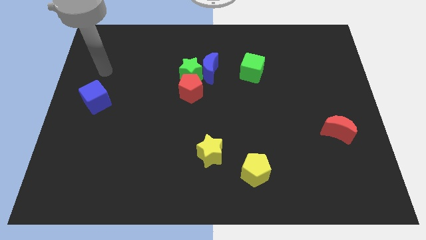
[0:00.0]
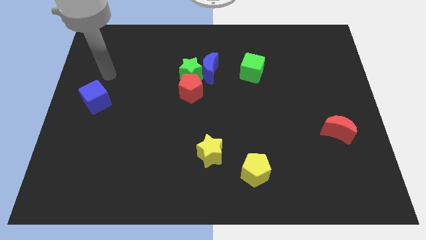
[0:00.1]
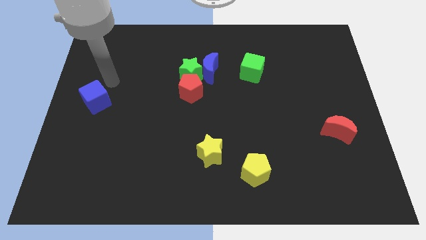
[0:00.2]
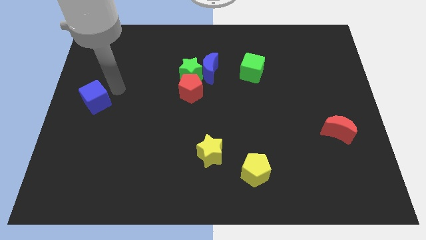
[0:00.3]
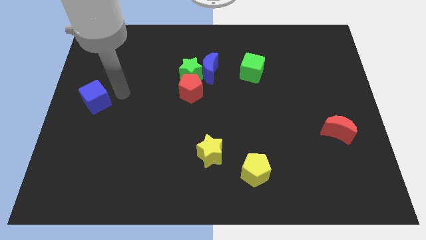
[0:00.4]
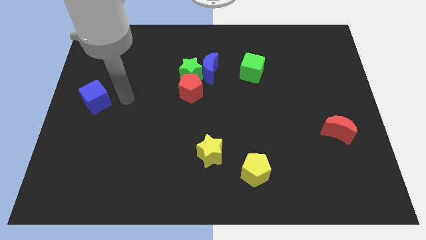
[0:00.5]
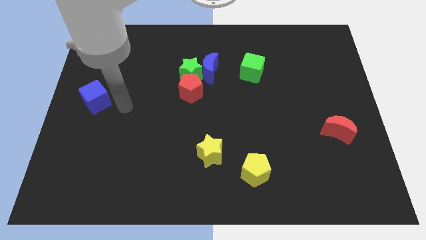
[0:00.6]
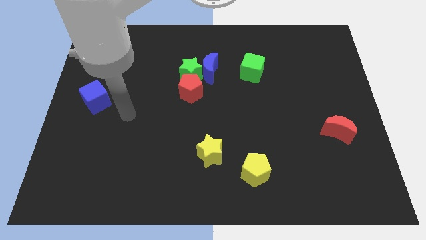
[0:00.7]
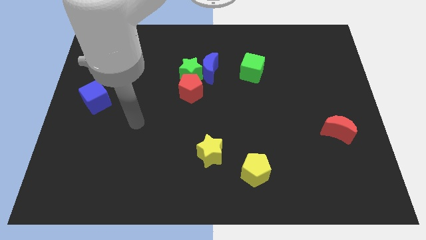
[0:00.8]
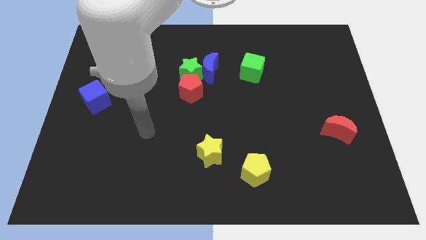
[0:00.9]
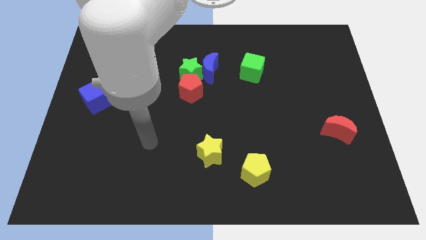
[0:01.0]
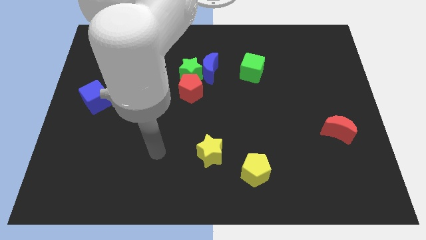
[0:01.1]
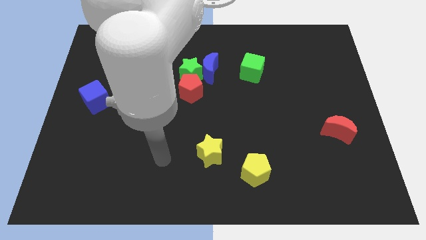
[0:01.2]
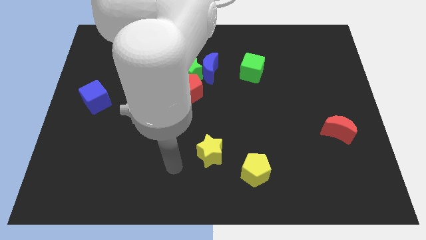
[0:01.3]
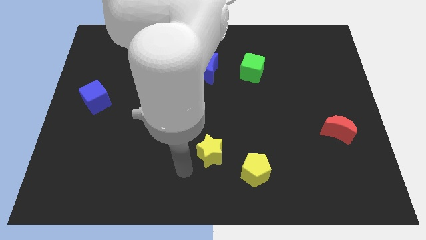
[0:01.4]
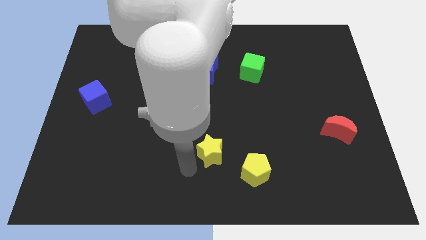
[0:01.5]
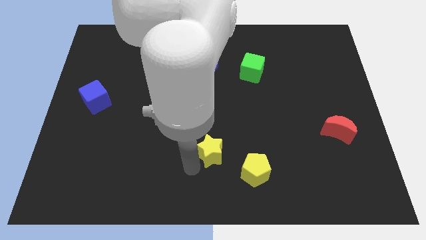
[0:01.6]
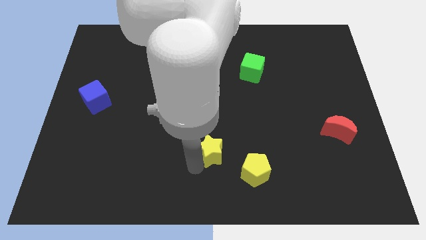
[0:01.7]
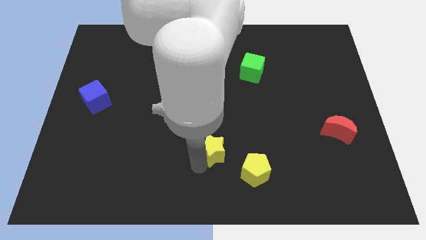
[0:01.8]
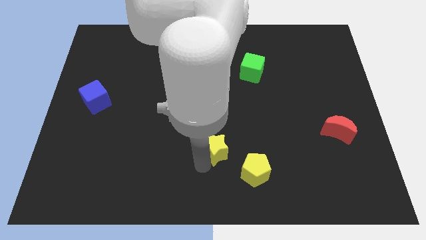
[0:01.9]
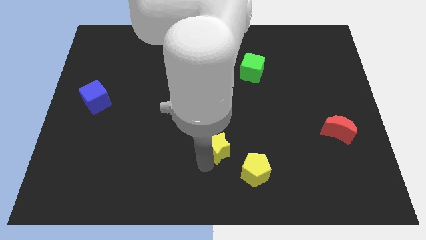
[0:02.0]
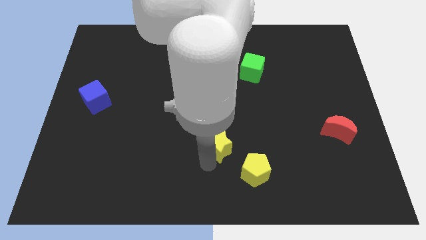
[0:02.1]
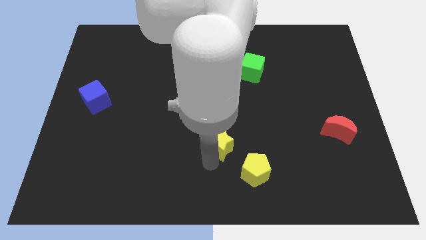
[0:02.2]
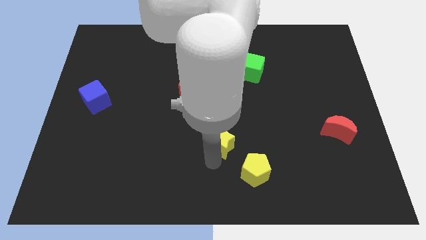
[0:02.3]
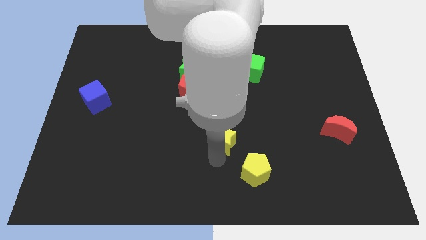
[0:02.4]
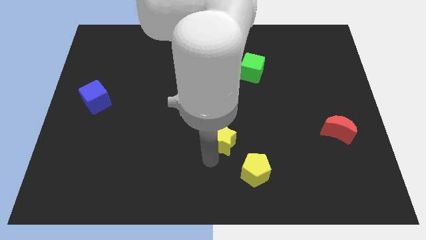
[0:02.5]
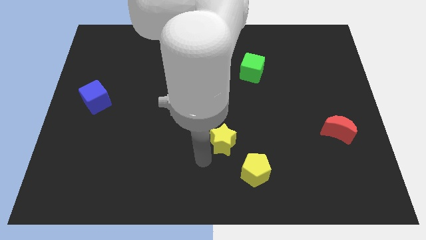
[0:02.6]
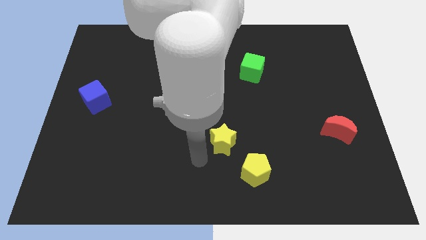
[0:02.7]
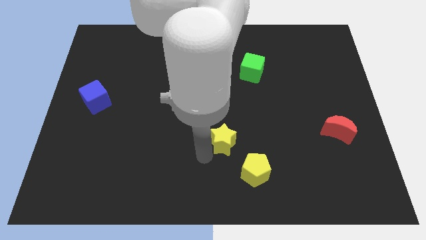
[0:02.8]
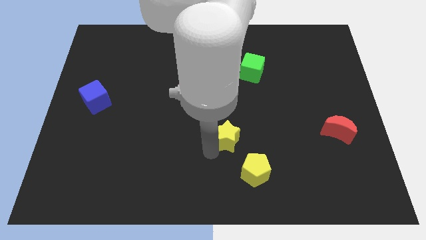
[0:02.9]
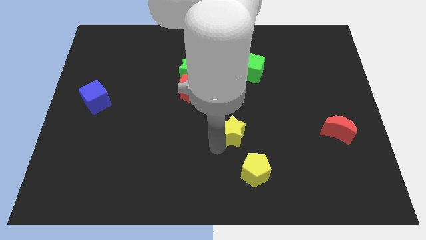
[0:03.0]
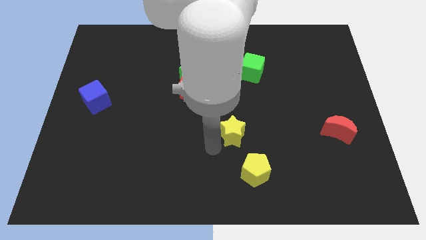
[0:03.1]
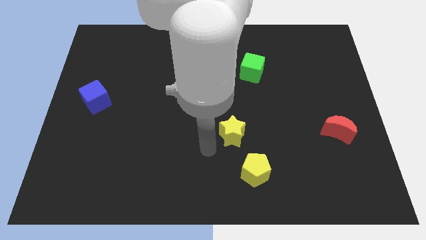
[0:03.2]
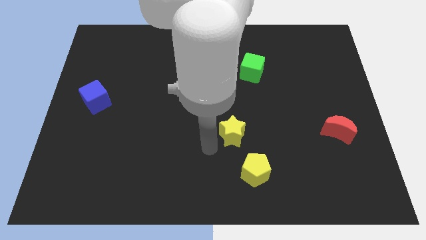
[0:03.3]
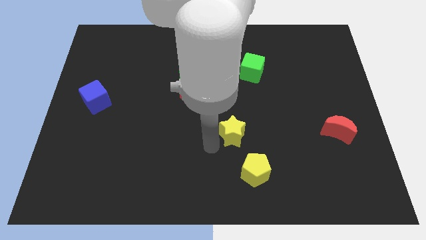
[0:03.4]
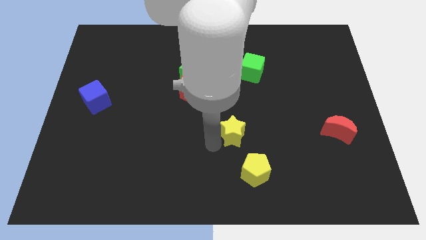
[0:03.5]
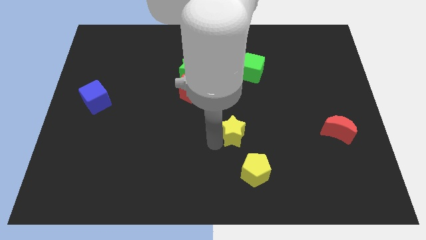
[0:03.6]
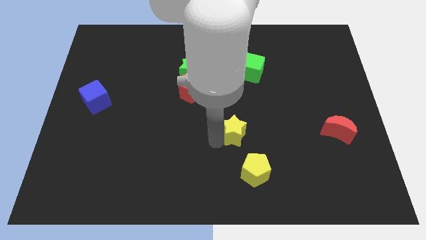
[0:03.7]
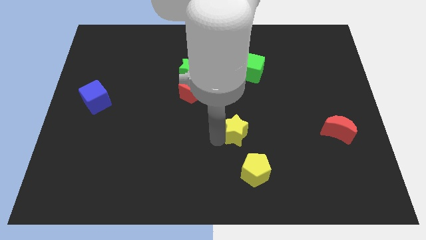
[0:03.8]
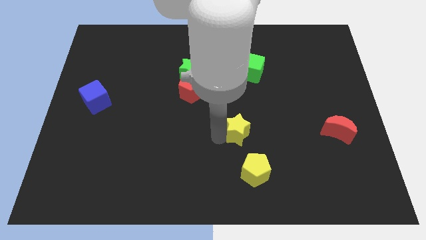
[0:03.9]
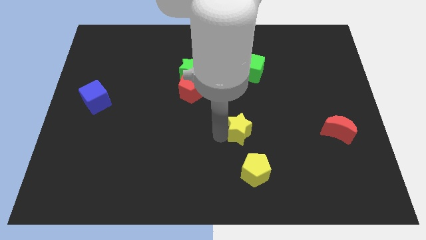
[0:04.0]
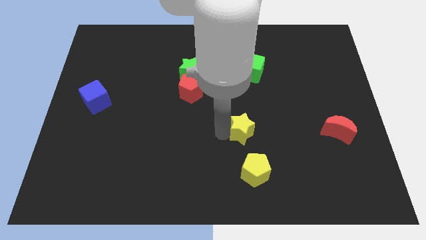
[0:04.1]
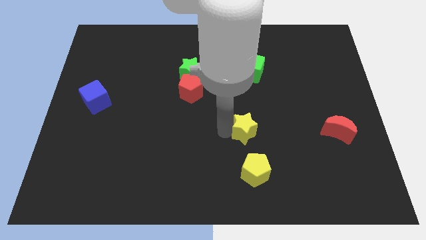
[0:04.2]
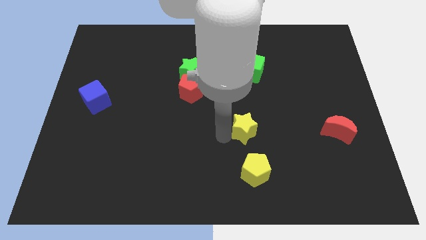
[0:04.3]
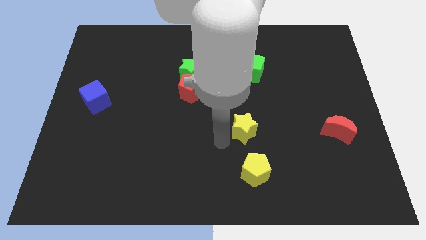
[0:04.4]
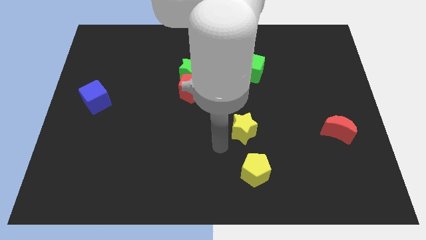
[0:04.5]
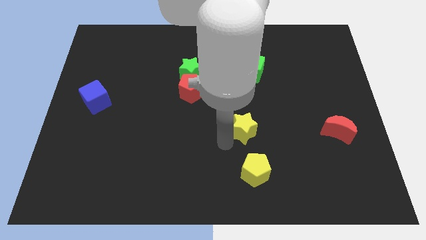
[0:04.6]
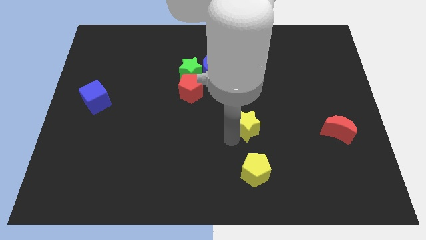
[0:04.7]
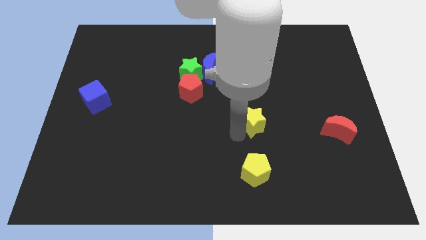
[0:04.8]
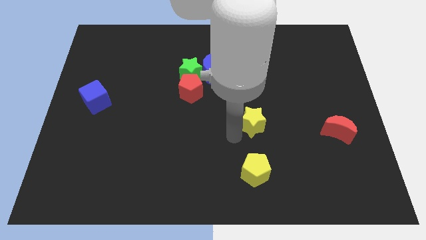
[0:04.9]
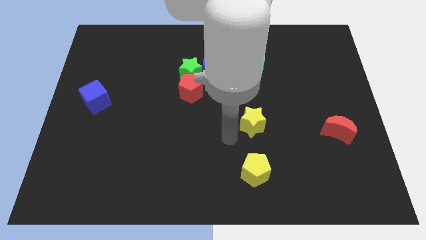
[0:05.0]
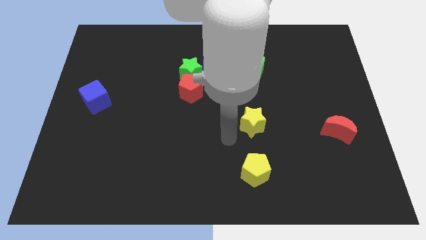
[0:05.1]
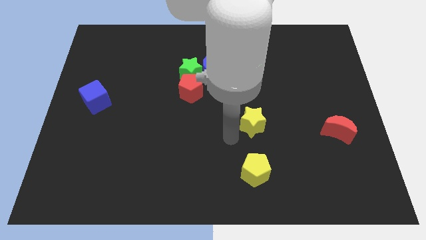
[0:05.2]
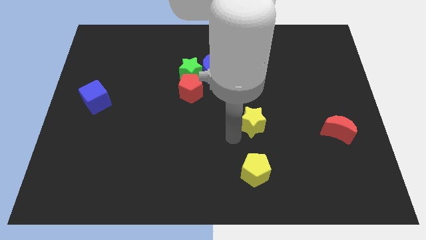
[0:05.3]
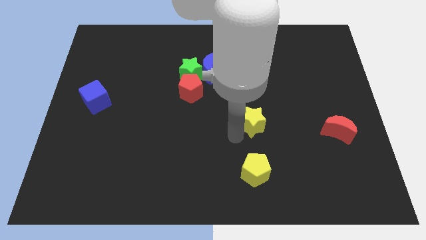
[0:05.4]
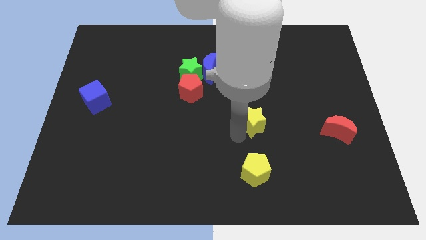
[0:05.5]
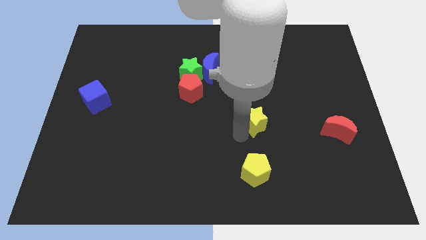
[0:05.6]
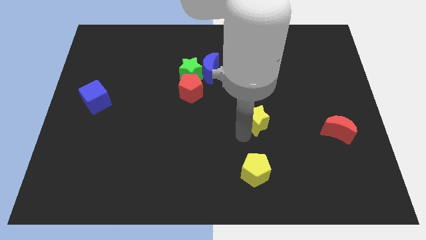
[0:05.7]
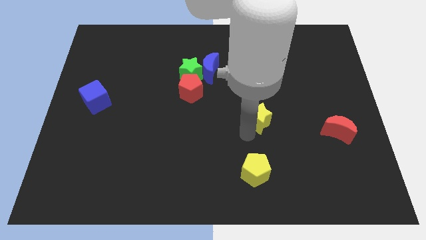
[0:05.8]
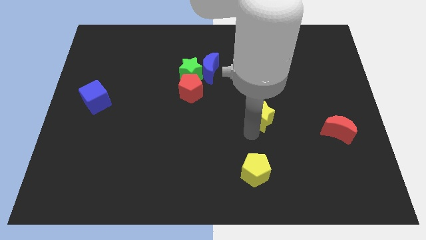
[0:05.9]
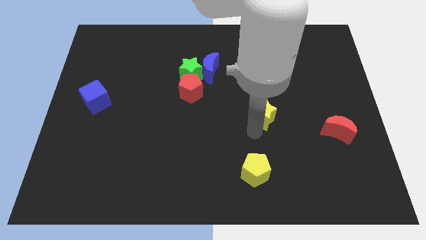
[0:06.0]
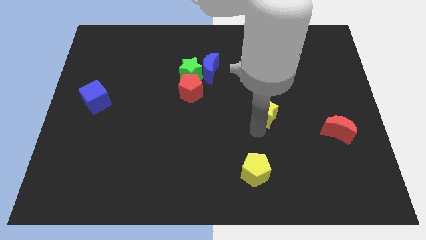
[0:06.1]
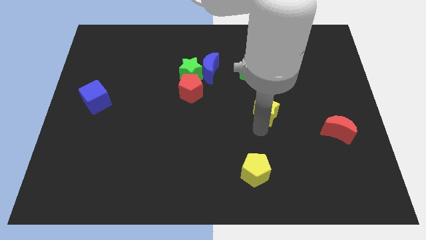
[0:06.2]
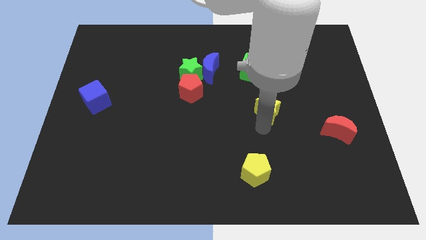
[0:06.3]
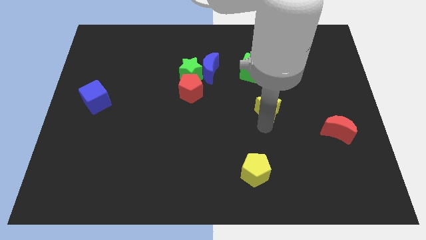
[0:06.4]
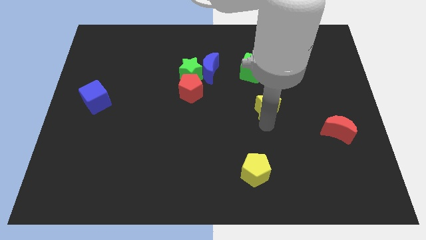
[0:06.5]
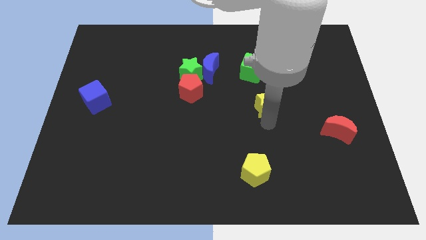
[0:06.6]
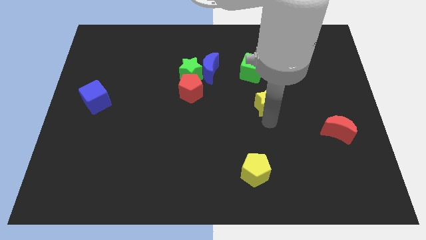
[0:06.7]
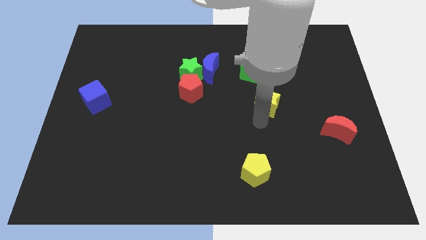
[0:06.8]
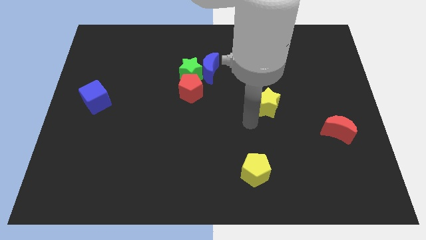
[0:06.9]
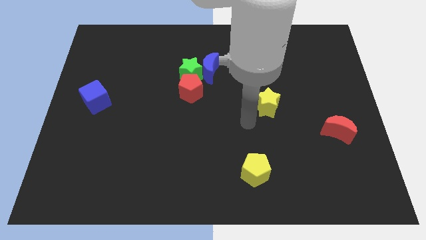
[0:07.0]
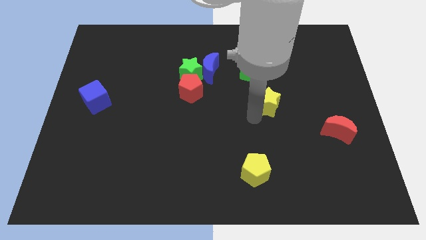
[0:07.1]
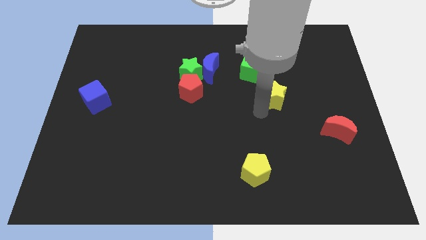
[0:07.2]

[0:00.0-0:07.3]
push the yellow star diagonally upwards and to the right

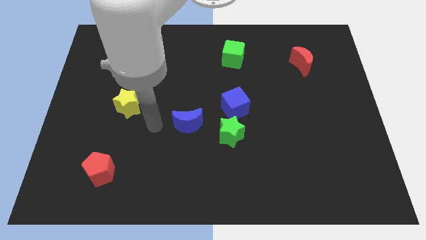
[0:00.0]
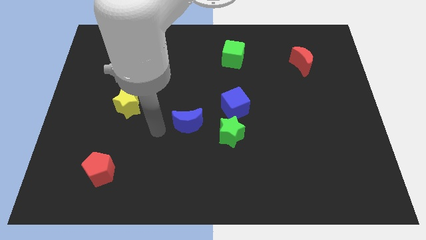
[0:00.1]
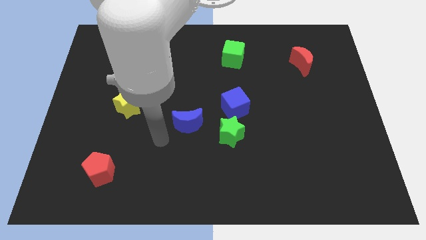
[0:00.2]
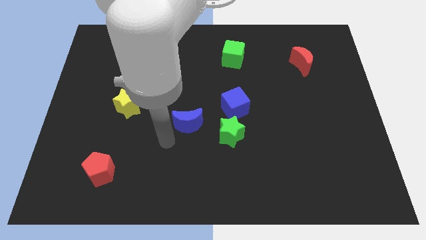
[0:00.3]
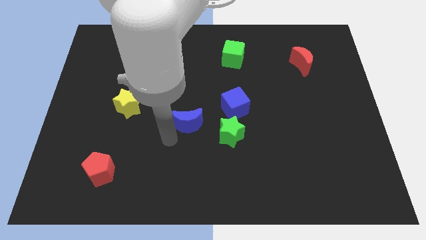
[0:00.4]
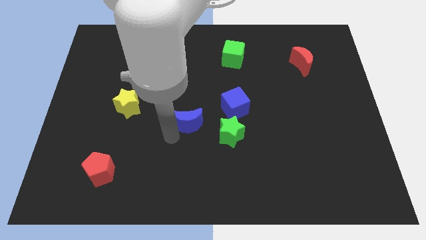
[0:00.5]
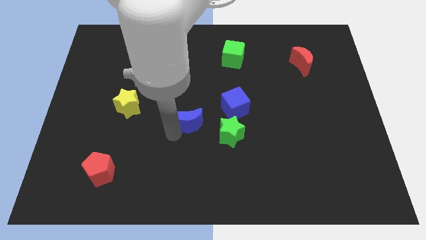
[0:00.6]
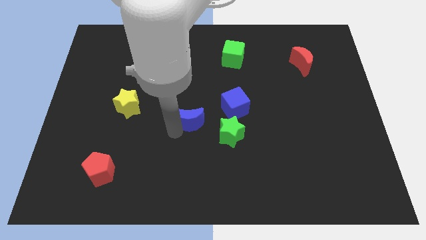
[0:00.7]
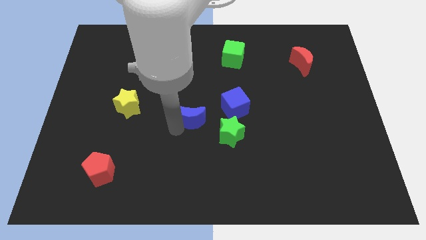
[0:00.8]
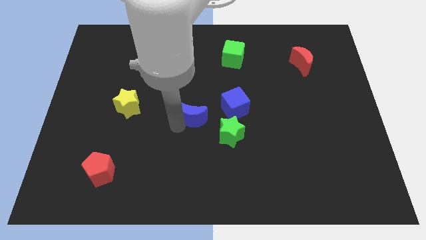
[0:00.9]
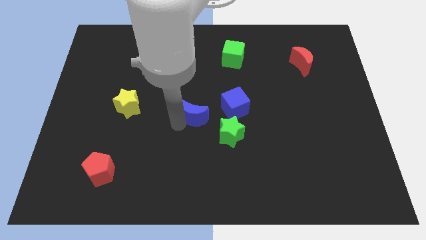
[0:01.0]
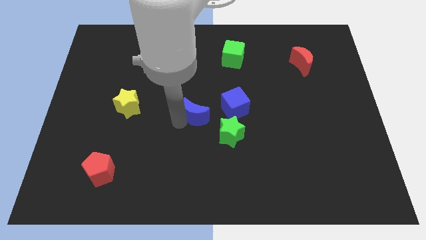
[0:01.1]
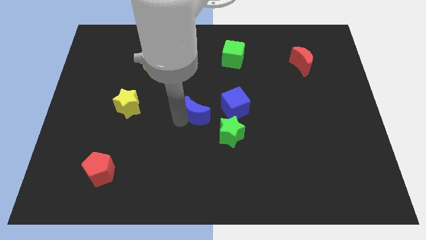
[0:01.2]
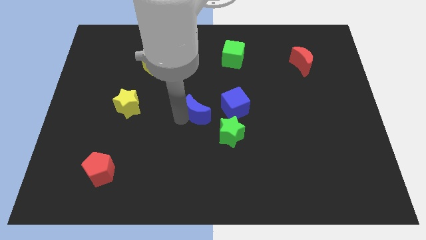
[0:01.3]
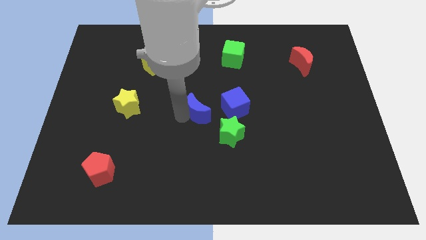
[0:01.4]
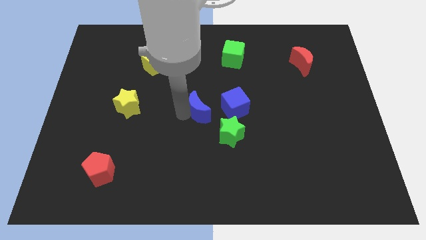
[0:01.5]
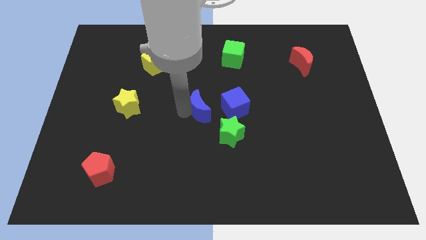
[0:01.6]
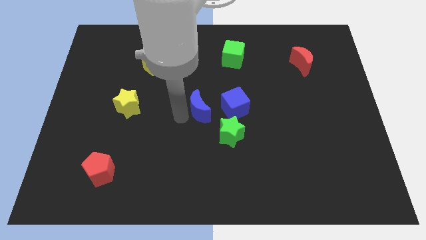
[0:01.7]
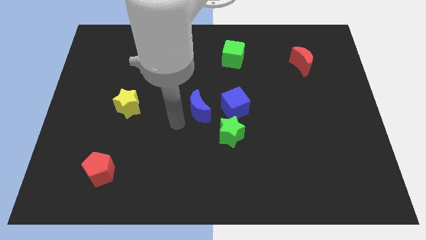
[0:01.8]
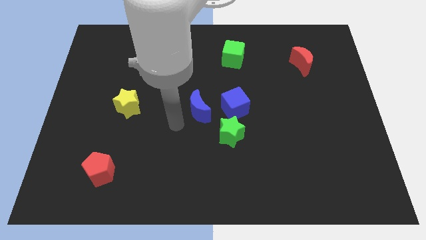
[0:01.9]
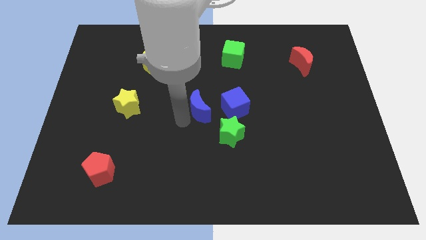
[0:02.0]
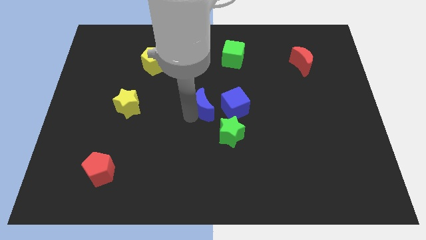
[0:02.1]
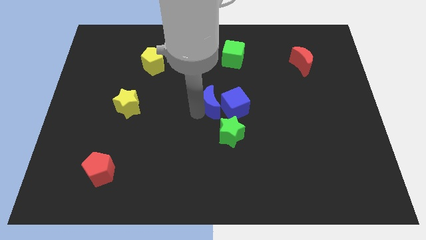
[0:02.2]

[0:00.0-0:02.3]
slide the blue moon slightly up and right diagonally
